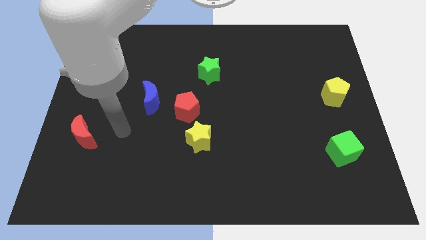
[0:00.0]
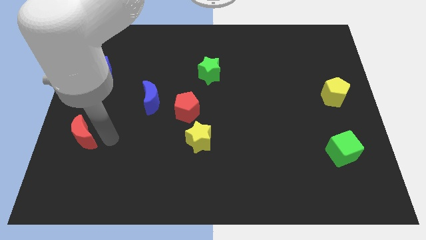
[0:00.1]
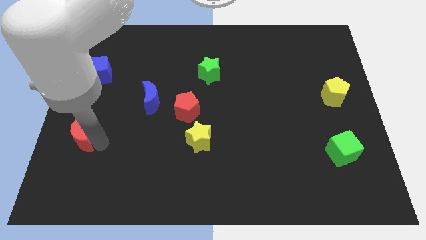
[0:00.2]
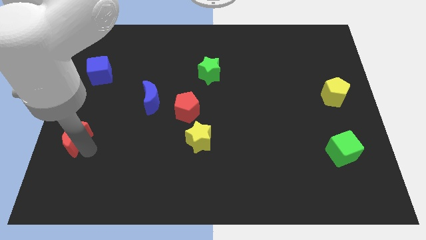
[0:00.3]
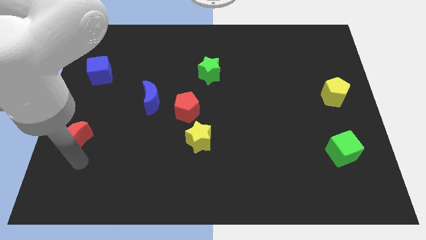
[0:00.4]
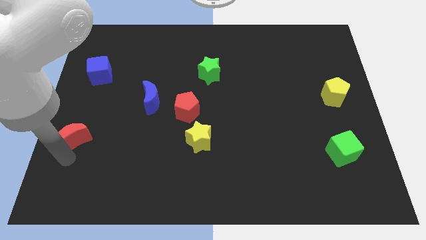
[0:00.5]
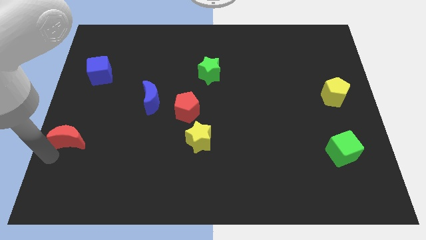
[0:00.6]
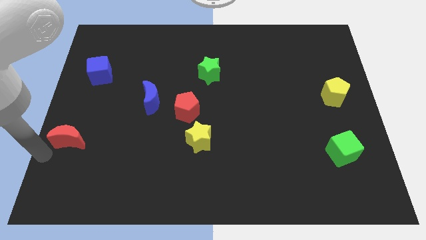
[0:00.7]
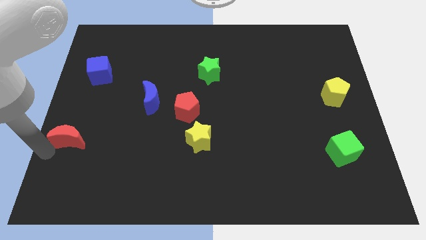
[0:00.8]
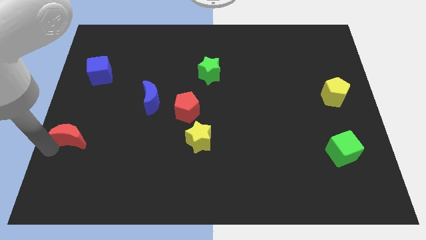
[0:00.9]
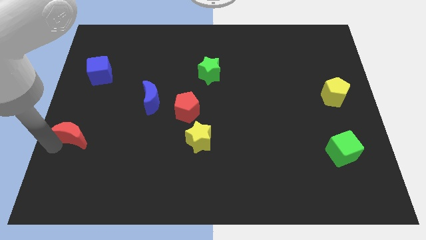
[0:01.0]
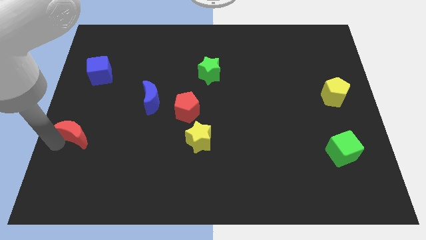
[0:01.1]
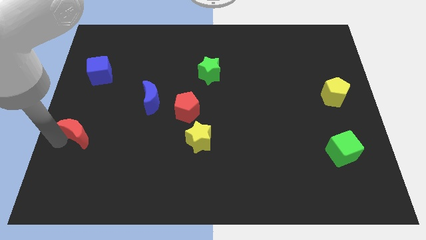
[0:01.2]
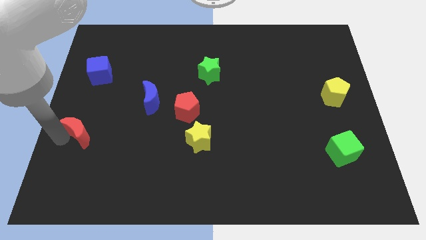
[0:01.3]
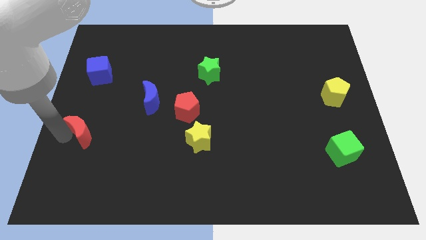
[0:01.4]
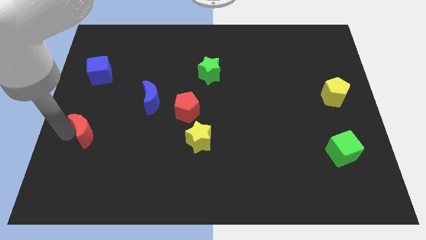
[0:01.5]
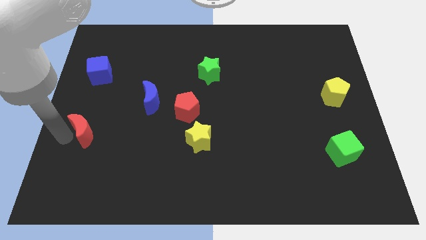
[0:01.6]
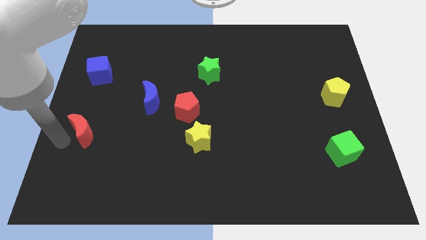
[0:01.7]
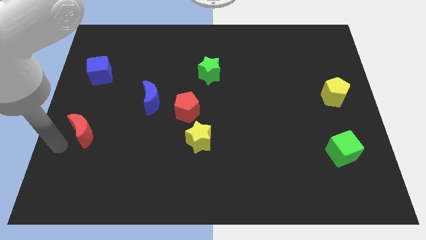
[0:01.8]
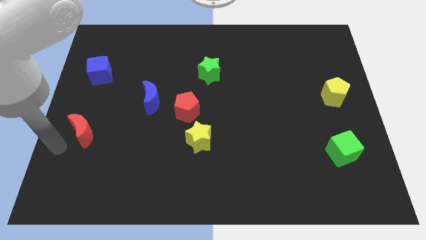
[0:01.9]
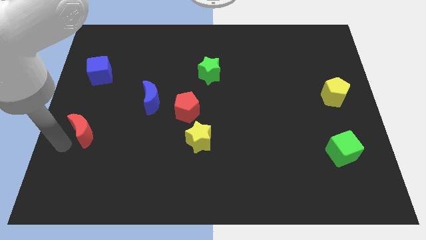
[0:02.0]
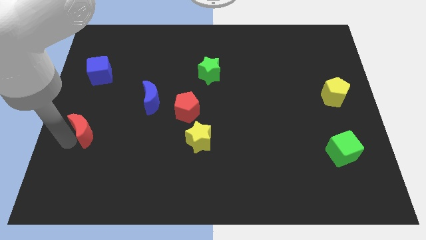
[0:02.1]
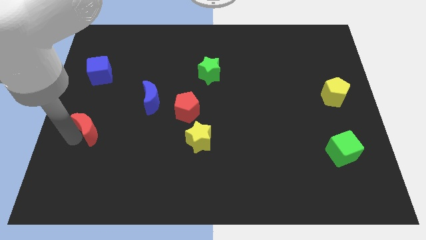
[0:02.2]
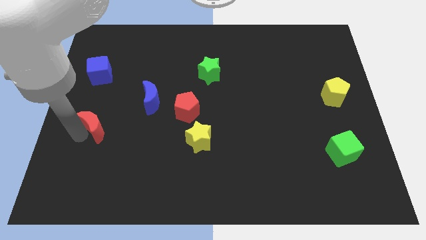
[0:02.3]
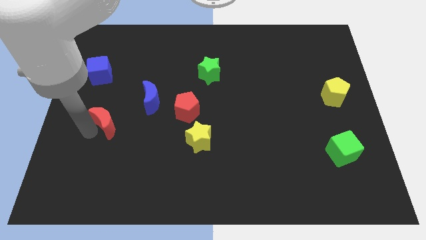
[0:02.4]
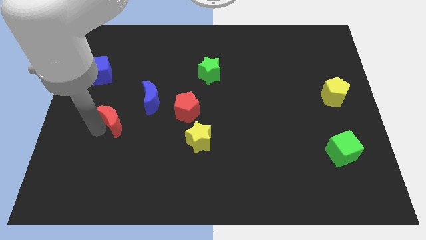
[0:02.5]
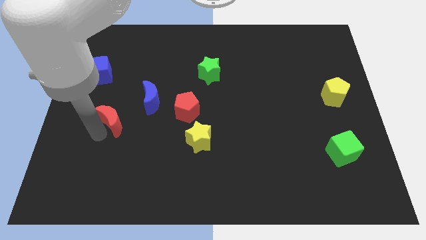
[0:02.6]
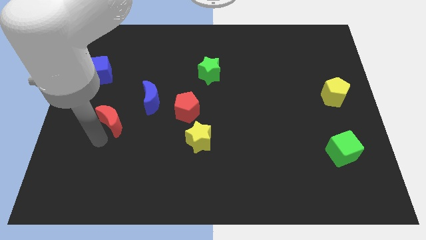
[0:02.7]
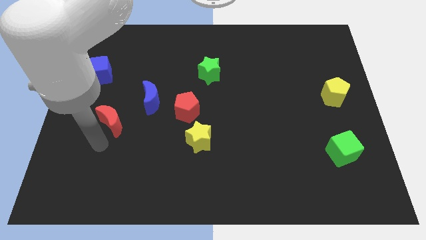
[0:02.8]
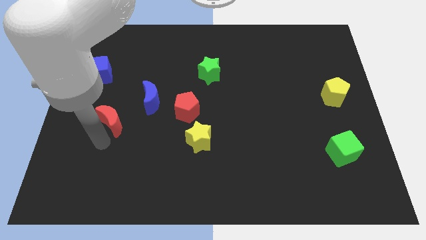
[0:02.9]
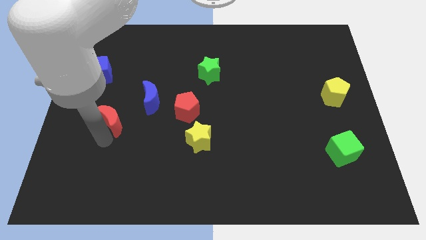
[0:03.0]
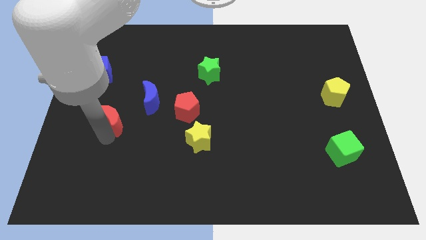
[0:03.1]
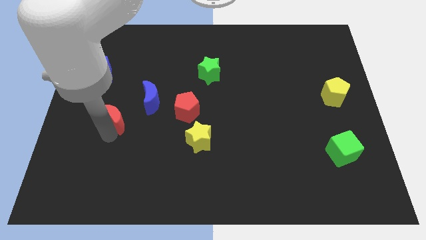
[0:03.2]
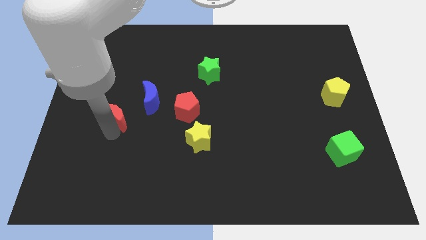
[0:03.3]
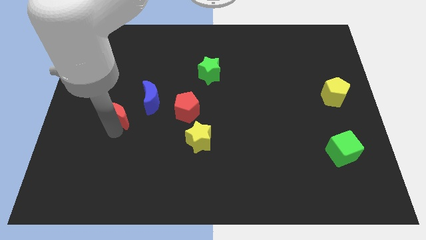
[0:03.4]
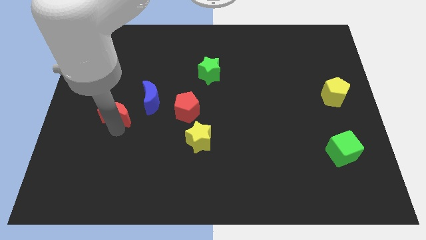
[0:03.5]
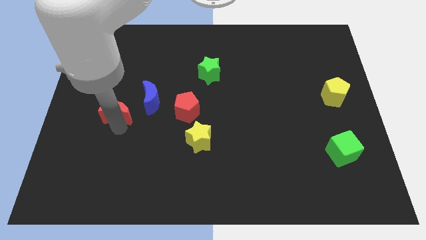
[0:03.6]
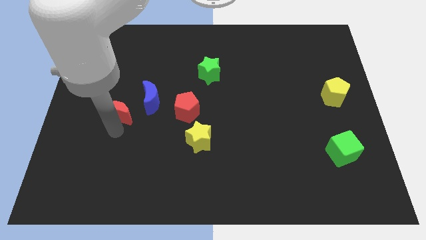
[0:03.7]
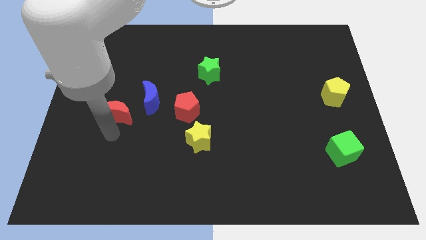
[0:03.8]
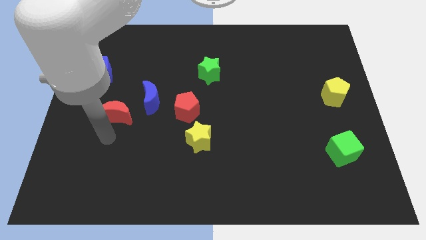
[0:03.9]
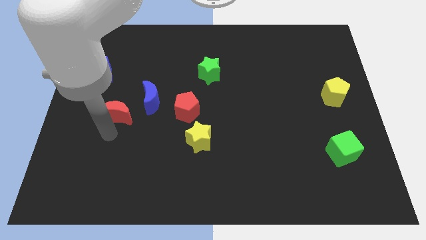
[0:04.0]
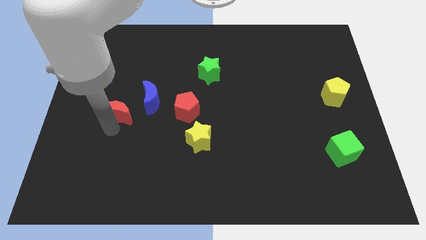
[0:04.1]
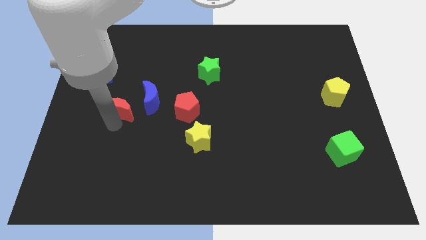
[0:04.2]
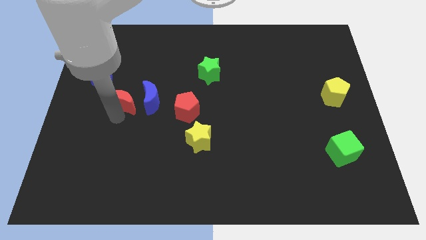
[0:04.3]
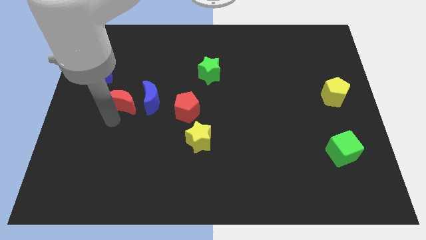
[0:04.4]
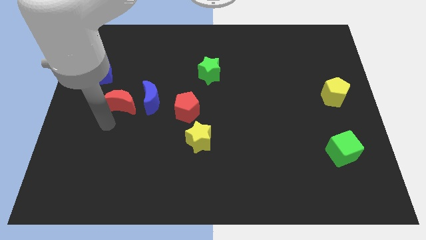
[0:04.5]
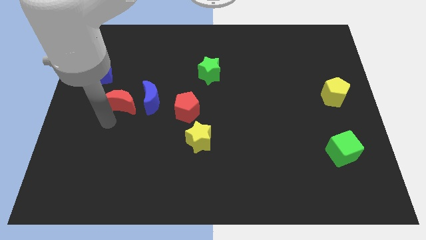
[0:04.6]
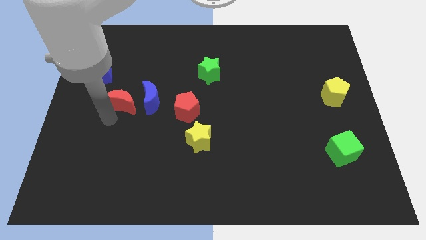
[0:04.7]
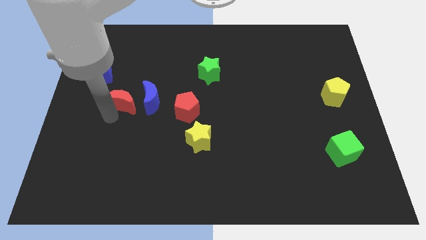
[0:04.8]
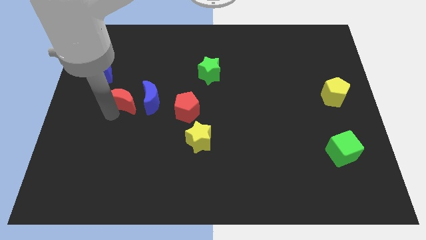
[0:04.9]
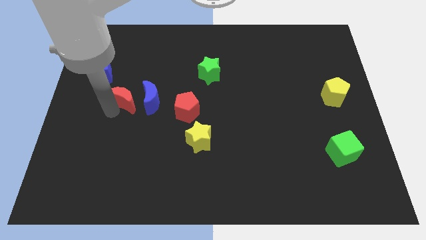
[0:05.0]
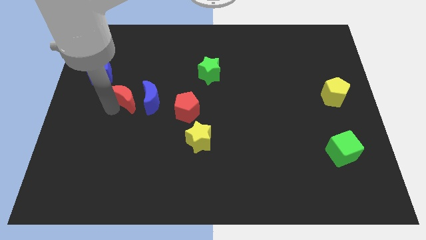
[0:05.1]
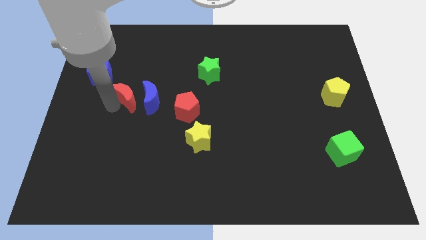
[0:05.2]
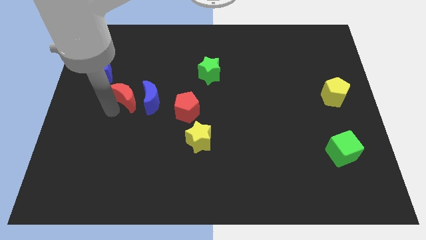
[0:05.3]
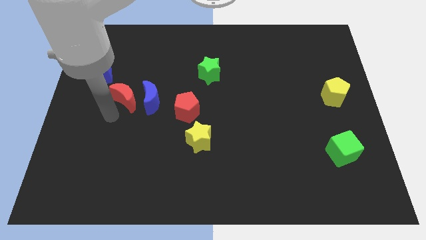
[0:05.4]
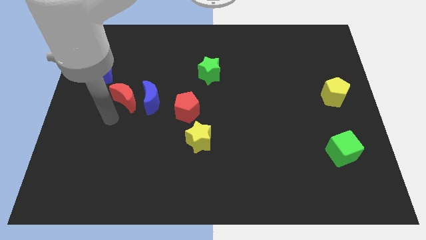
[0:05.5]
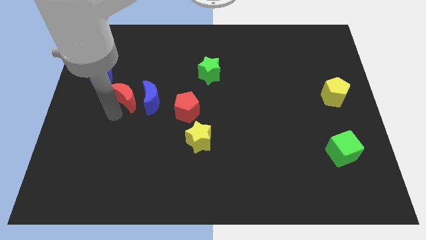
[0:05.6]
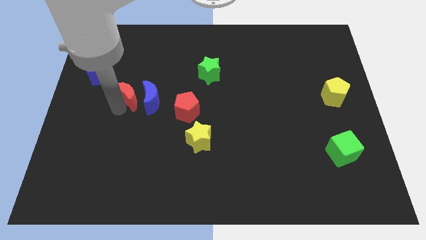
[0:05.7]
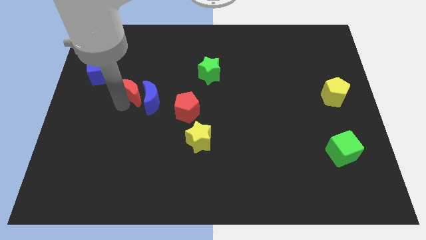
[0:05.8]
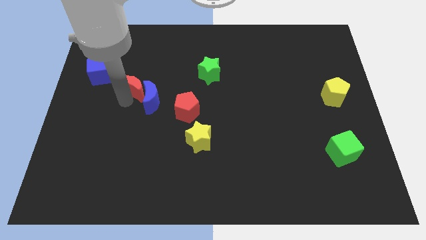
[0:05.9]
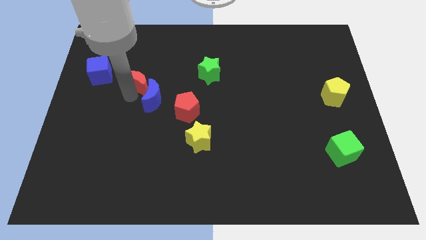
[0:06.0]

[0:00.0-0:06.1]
slide the red moon right of the blue cube

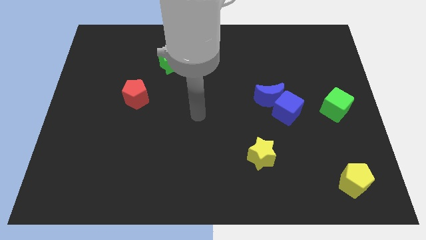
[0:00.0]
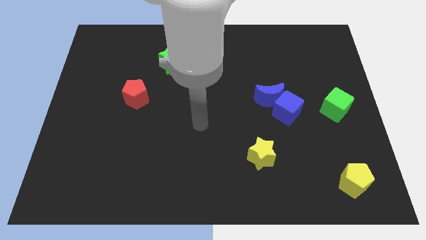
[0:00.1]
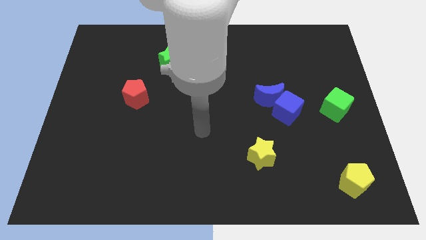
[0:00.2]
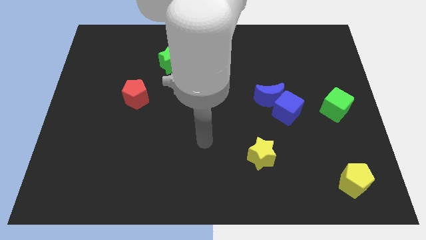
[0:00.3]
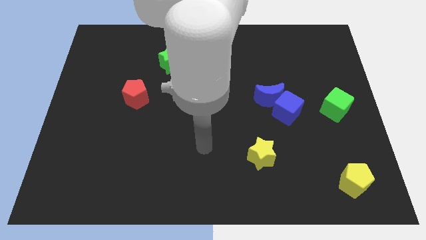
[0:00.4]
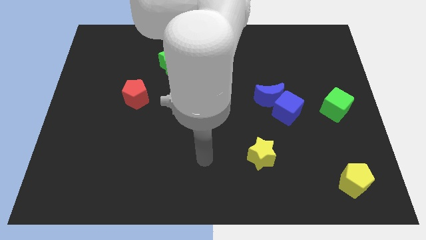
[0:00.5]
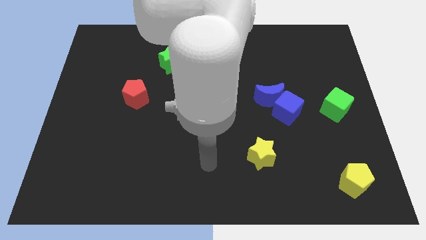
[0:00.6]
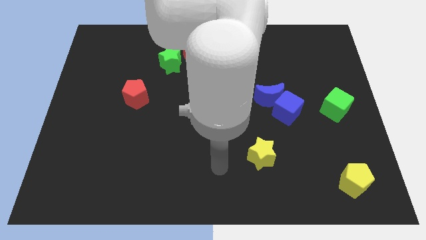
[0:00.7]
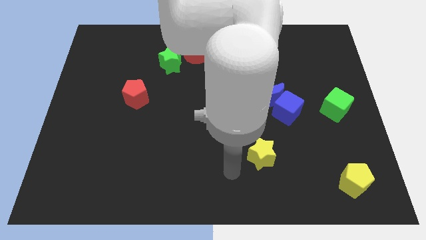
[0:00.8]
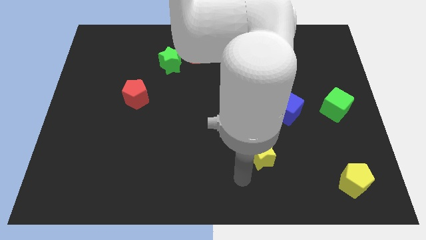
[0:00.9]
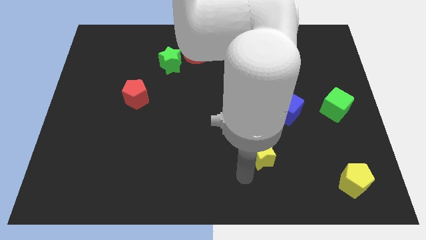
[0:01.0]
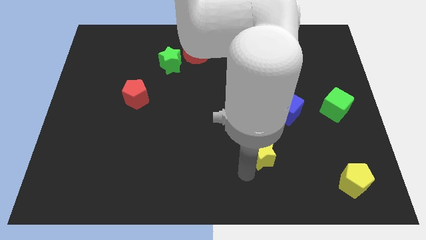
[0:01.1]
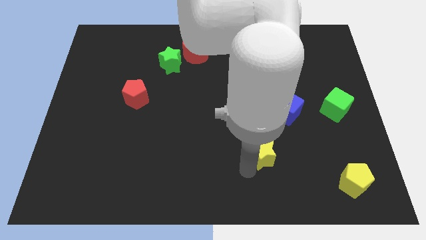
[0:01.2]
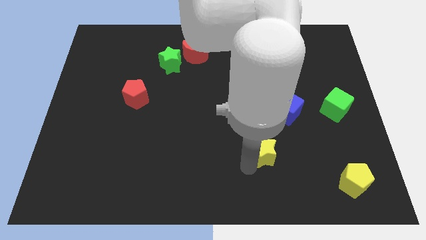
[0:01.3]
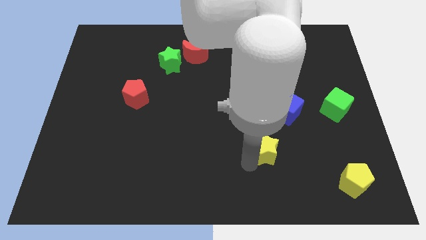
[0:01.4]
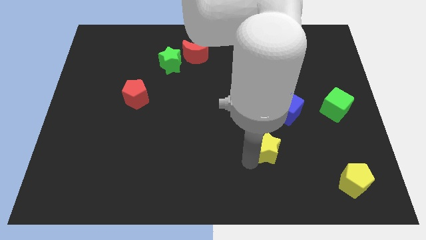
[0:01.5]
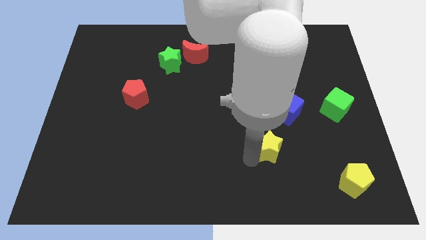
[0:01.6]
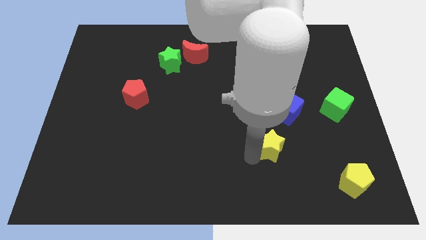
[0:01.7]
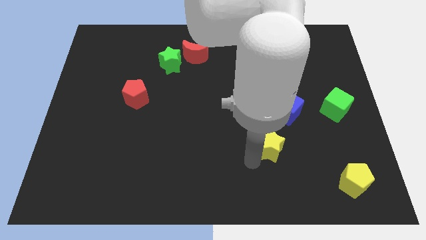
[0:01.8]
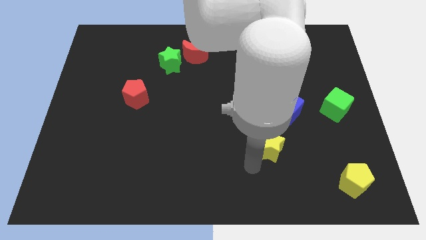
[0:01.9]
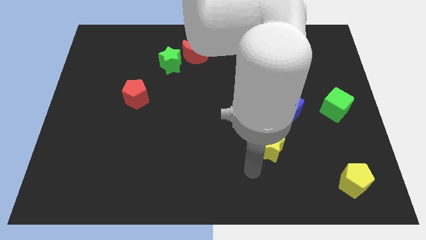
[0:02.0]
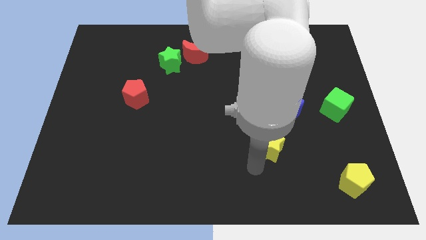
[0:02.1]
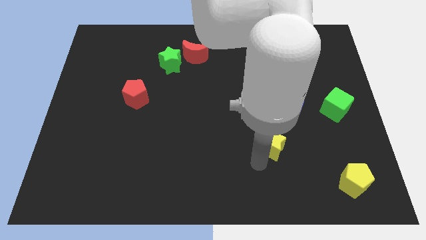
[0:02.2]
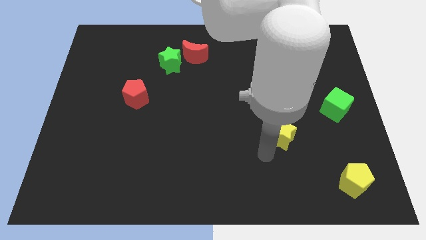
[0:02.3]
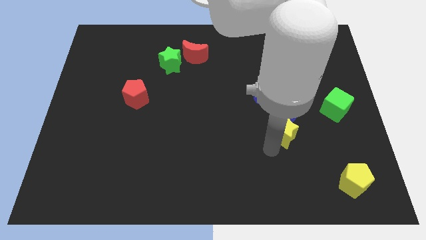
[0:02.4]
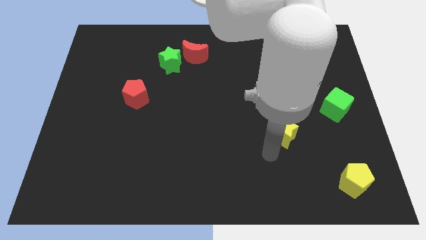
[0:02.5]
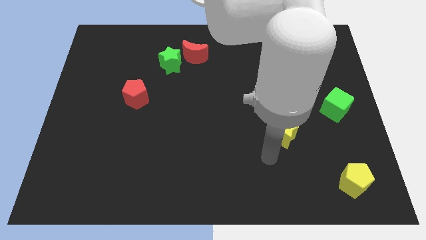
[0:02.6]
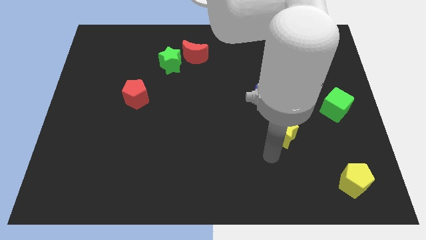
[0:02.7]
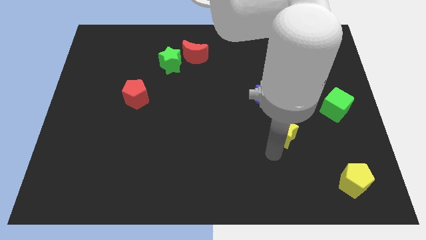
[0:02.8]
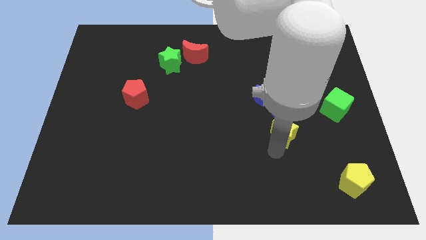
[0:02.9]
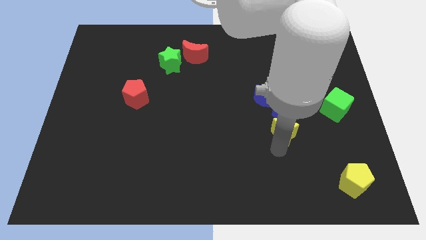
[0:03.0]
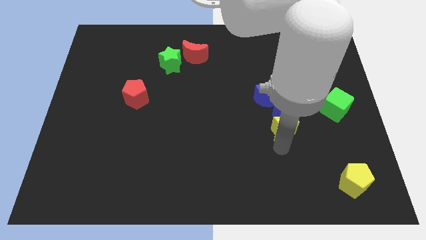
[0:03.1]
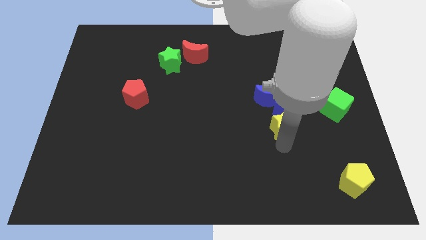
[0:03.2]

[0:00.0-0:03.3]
slide the yellow star diagonally down and to the right of the blue moon
